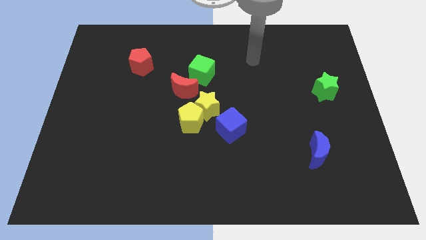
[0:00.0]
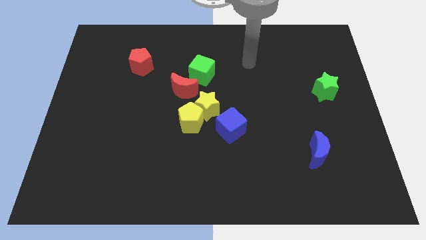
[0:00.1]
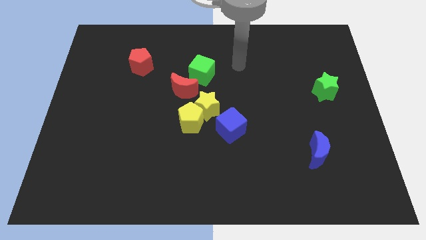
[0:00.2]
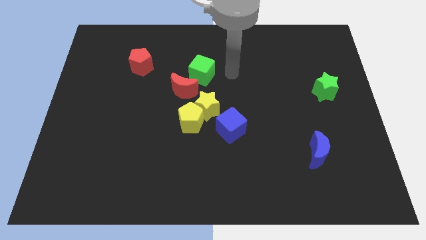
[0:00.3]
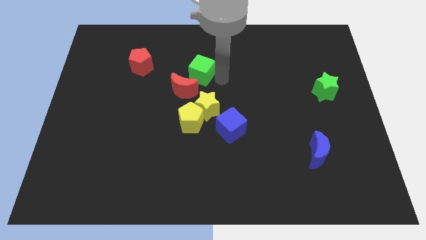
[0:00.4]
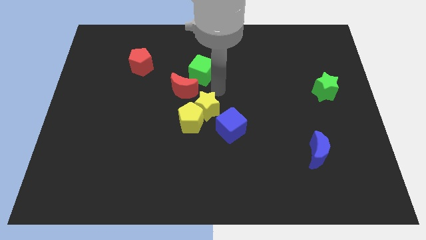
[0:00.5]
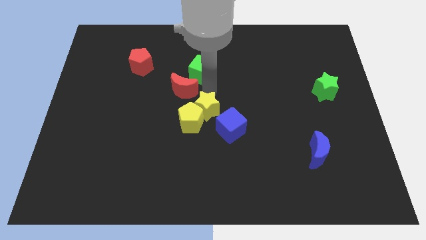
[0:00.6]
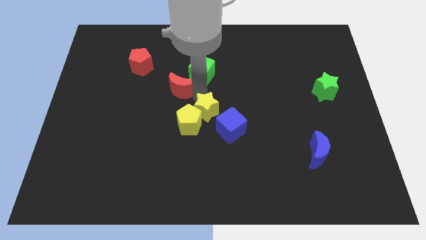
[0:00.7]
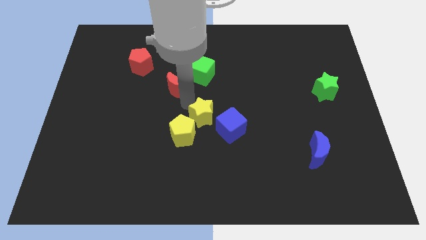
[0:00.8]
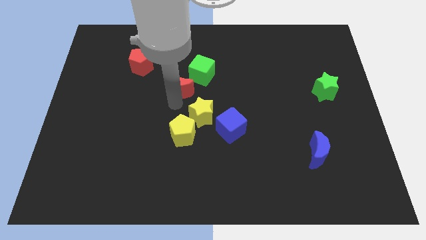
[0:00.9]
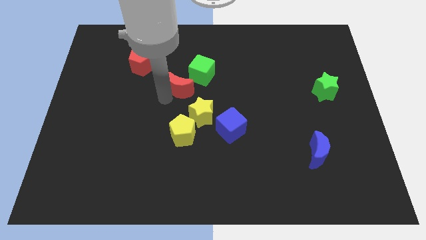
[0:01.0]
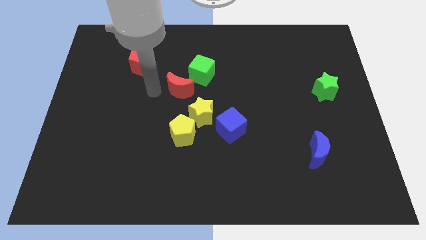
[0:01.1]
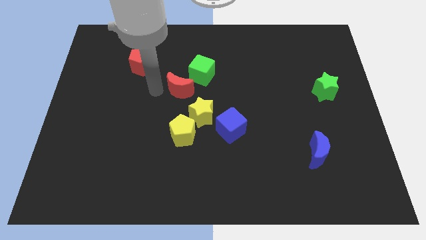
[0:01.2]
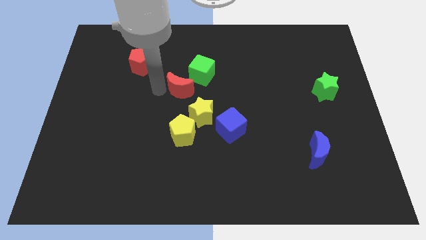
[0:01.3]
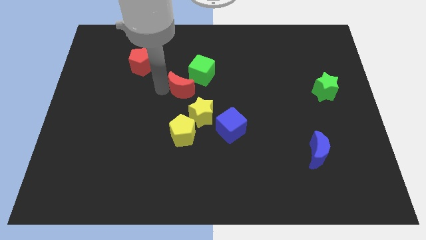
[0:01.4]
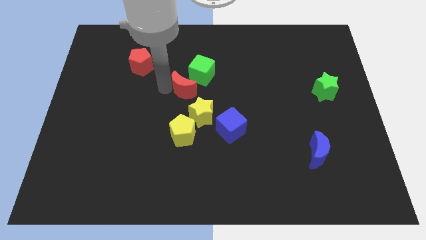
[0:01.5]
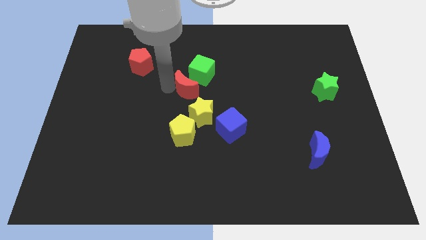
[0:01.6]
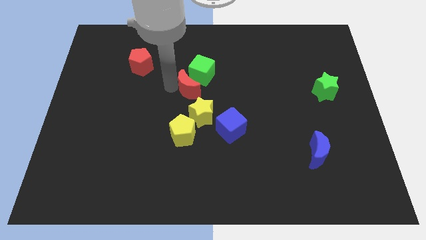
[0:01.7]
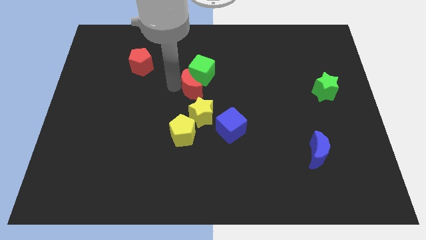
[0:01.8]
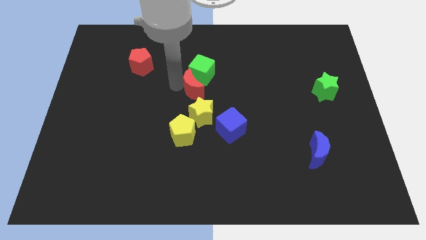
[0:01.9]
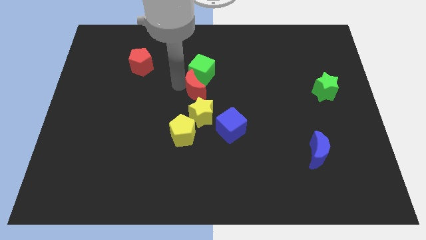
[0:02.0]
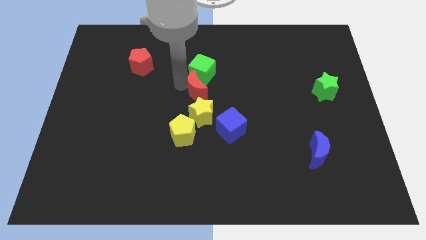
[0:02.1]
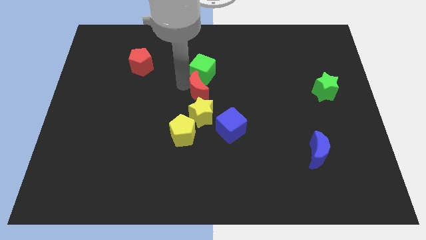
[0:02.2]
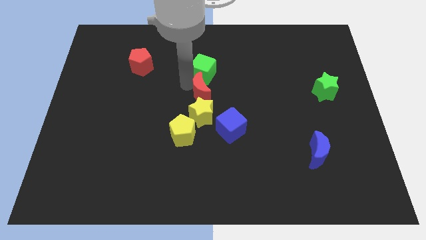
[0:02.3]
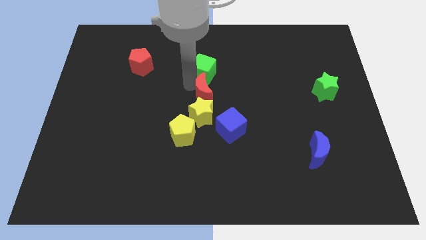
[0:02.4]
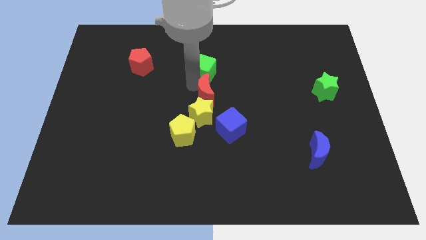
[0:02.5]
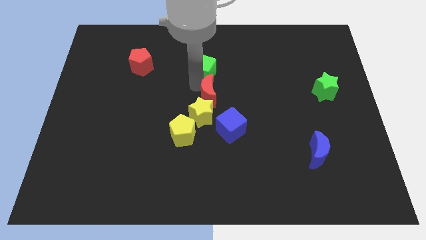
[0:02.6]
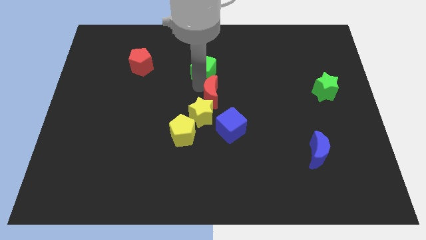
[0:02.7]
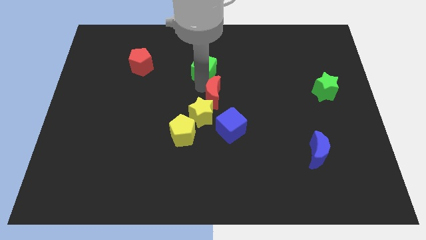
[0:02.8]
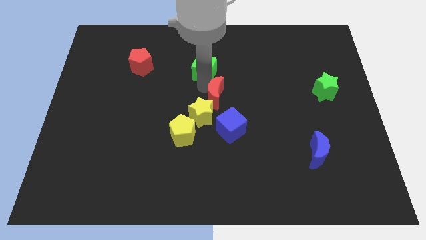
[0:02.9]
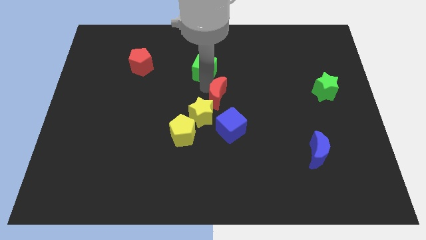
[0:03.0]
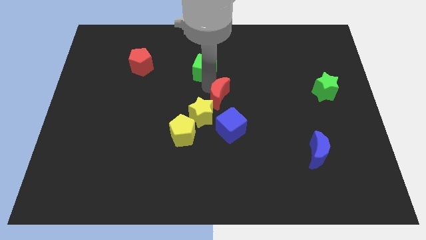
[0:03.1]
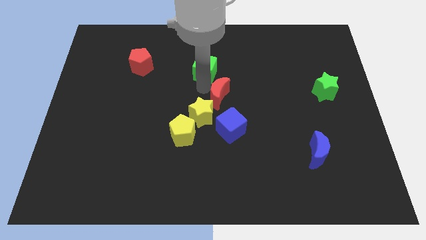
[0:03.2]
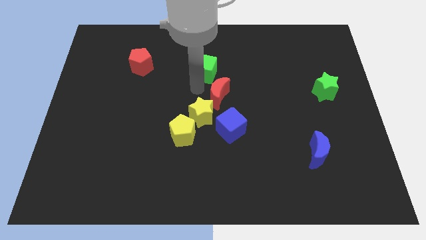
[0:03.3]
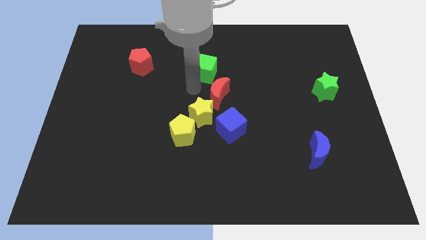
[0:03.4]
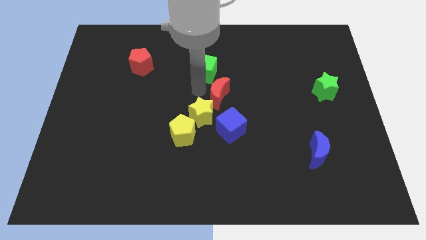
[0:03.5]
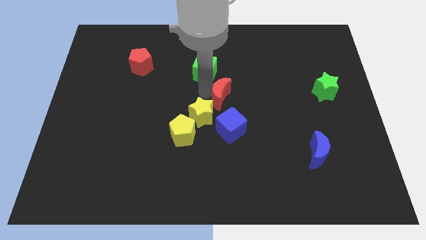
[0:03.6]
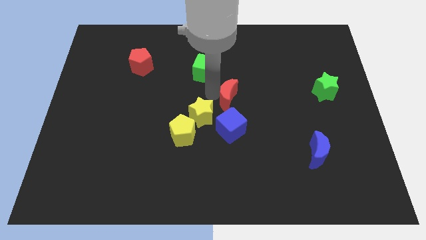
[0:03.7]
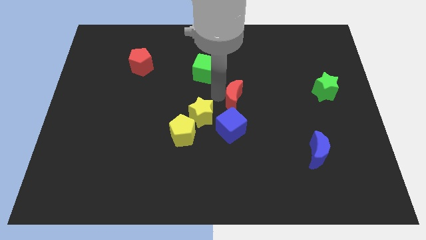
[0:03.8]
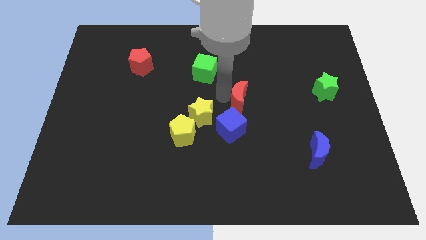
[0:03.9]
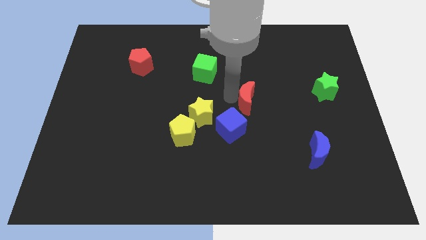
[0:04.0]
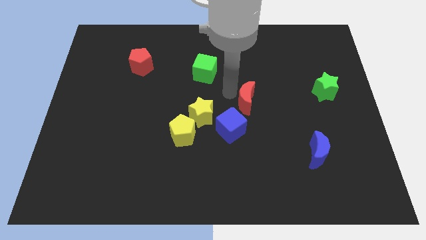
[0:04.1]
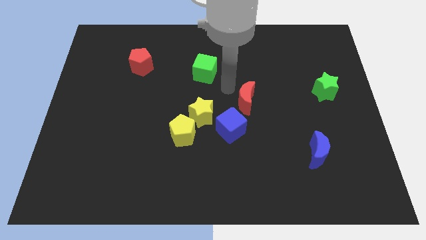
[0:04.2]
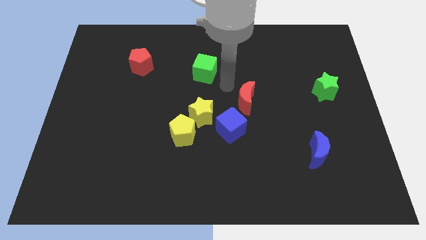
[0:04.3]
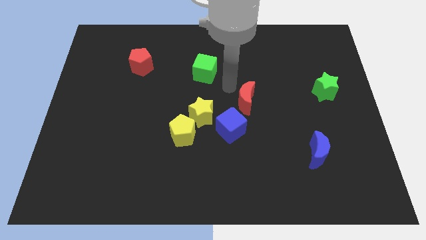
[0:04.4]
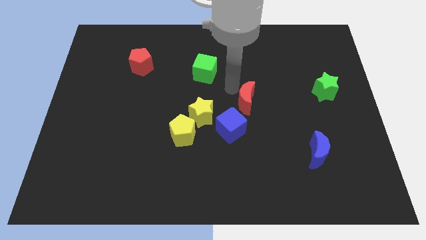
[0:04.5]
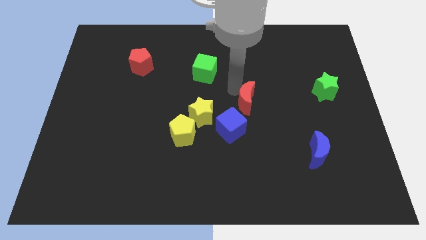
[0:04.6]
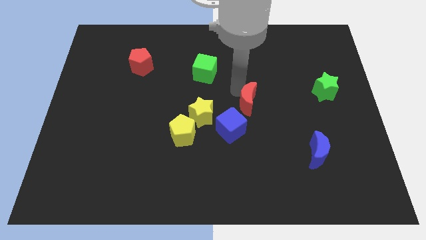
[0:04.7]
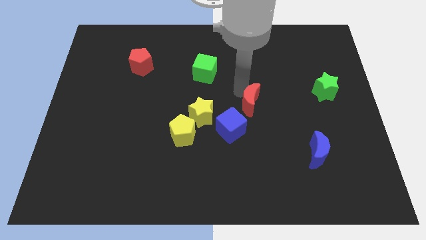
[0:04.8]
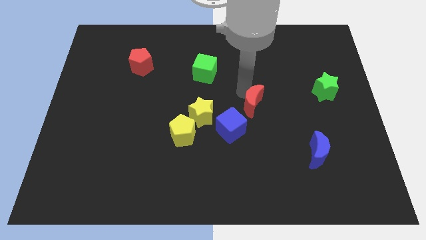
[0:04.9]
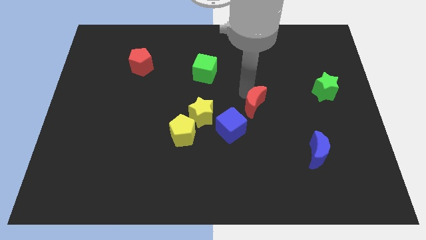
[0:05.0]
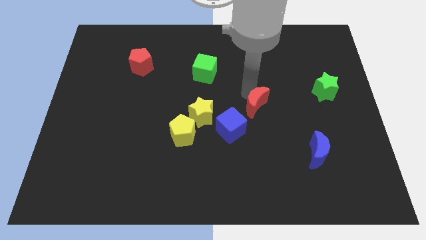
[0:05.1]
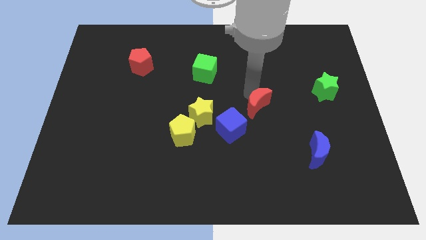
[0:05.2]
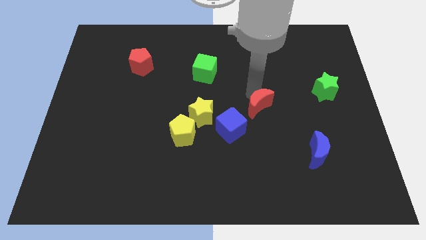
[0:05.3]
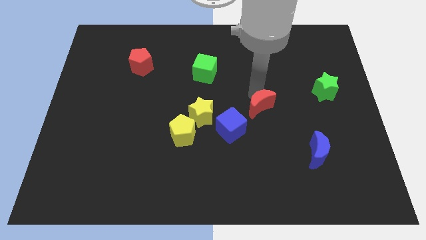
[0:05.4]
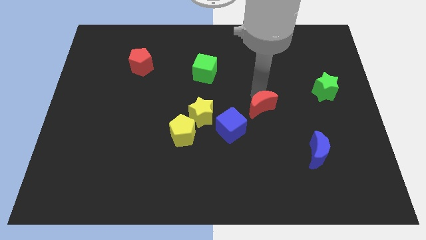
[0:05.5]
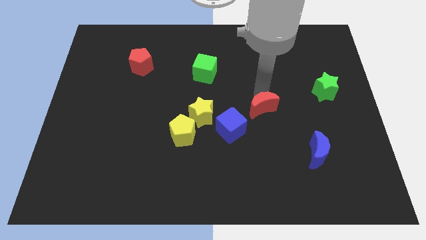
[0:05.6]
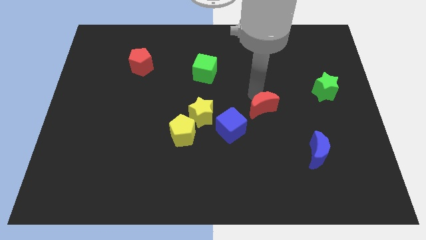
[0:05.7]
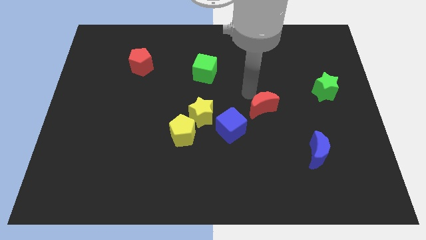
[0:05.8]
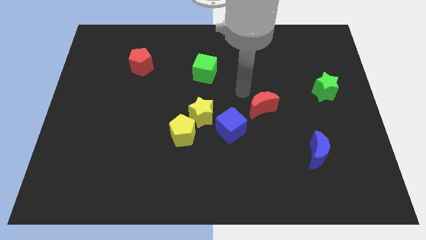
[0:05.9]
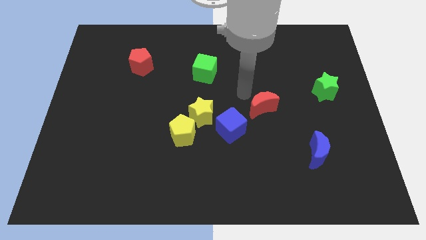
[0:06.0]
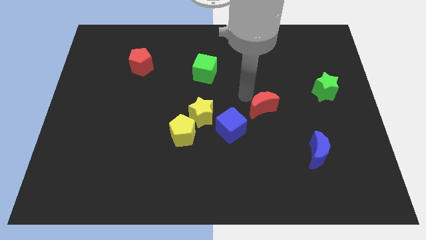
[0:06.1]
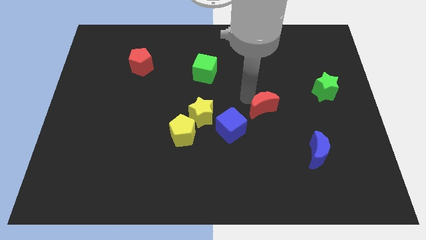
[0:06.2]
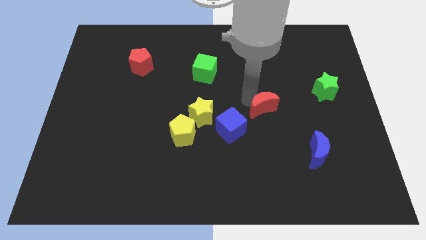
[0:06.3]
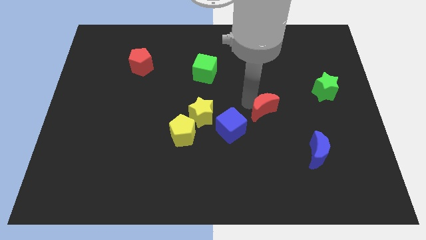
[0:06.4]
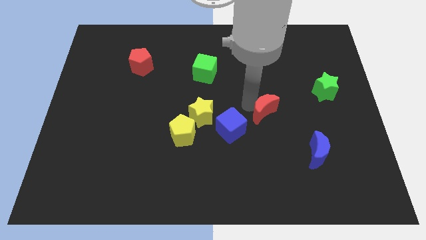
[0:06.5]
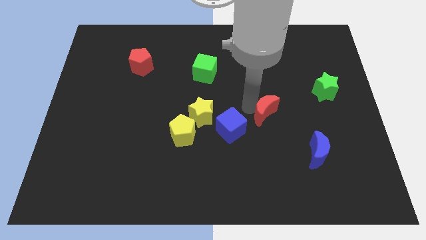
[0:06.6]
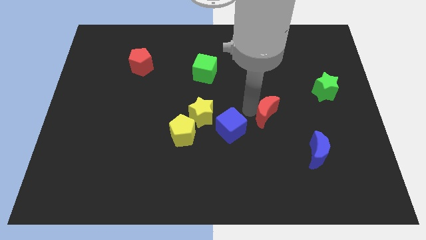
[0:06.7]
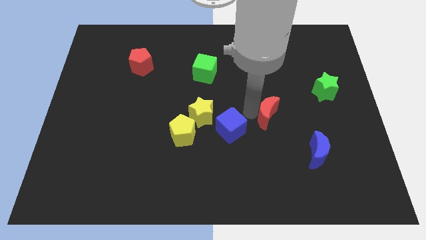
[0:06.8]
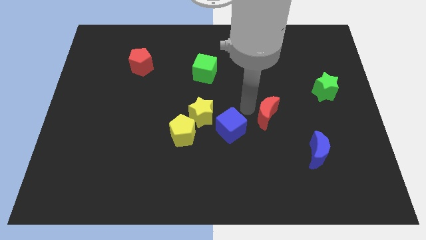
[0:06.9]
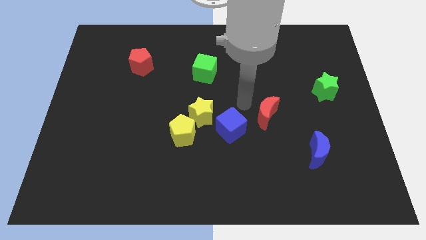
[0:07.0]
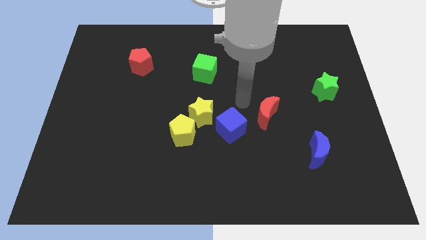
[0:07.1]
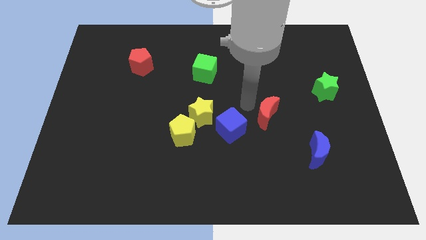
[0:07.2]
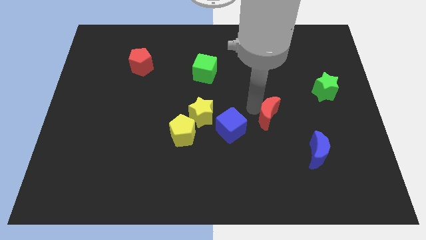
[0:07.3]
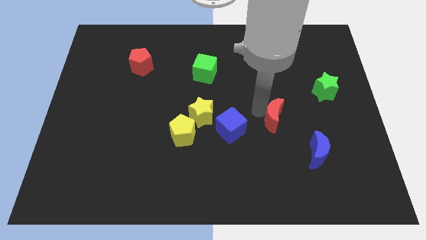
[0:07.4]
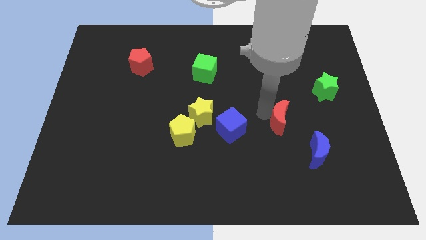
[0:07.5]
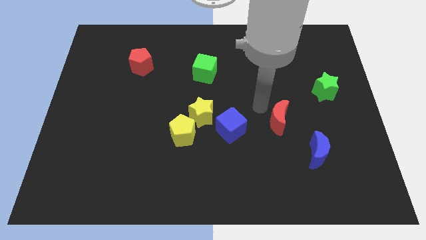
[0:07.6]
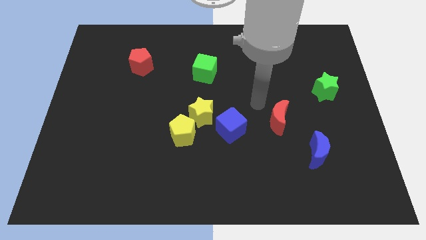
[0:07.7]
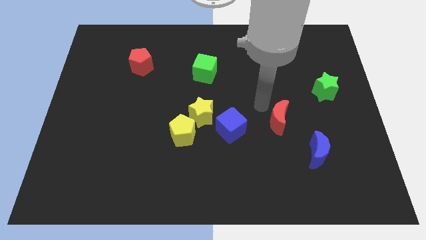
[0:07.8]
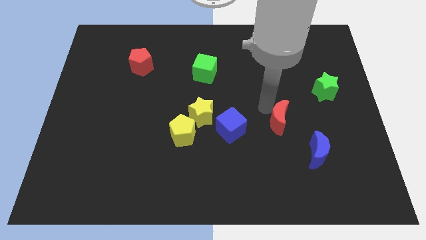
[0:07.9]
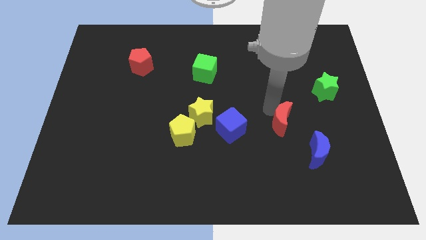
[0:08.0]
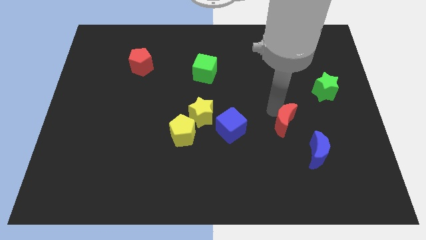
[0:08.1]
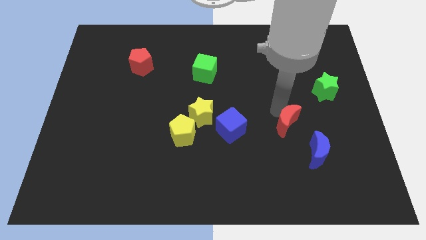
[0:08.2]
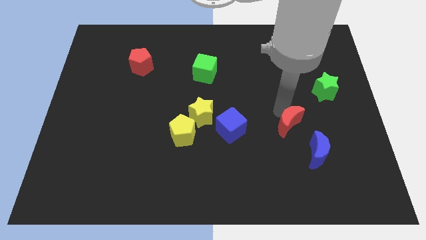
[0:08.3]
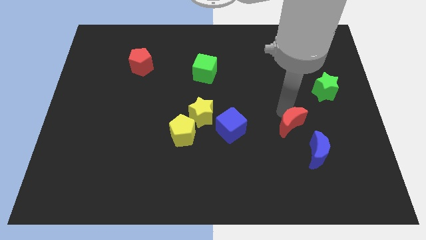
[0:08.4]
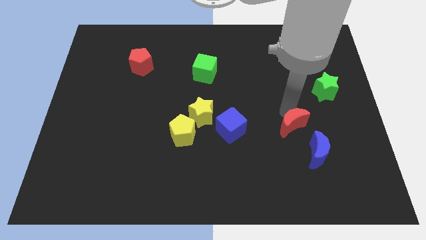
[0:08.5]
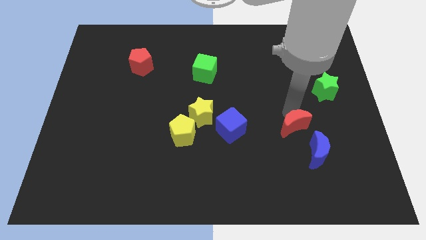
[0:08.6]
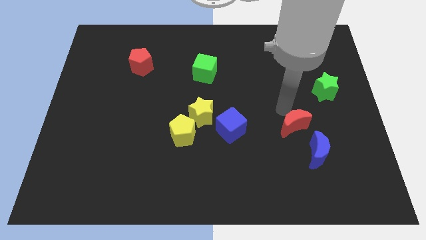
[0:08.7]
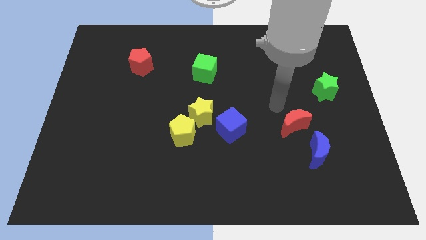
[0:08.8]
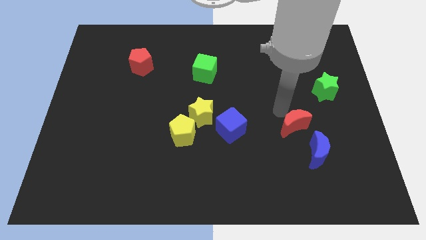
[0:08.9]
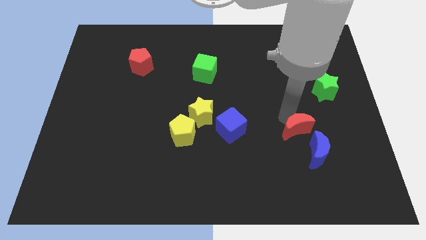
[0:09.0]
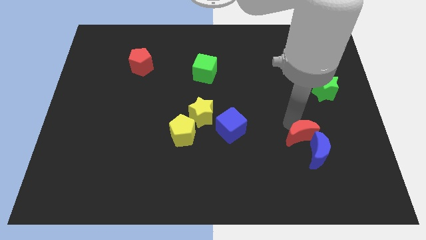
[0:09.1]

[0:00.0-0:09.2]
move the red moon close to the blue moon
